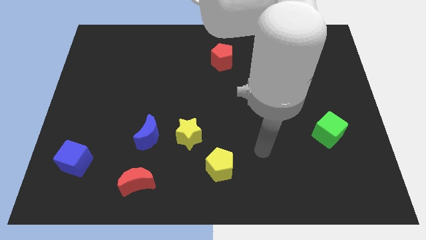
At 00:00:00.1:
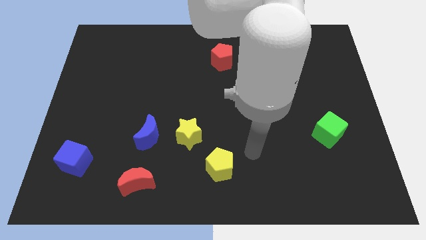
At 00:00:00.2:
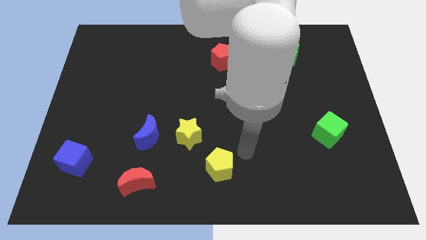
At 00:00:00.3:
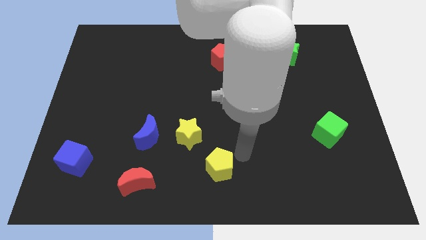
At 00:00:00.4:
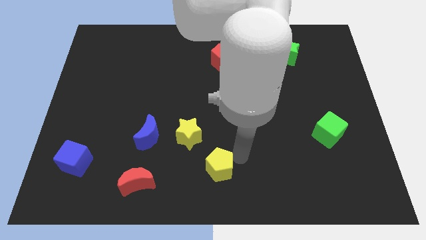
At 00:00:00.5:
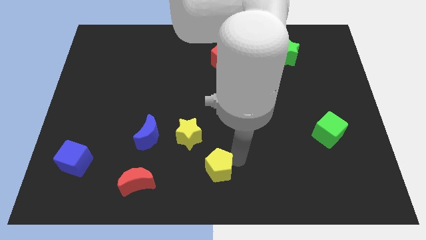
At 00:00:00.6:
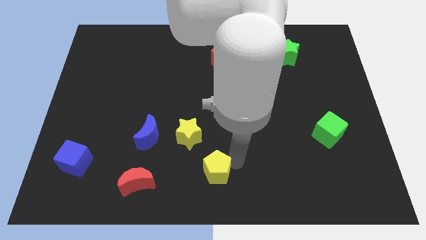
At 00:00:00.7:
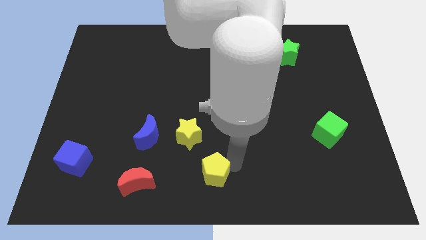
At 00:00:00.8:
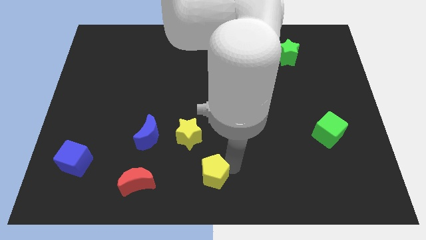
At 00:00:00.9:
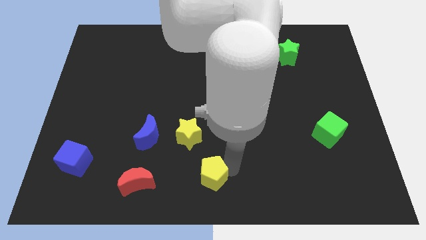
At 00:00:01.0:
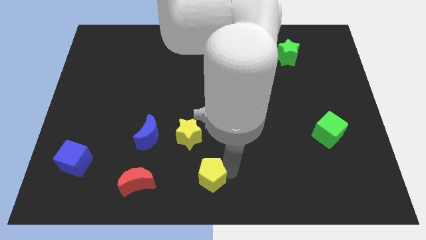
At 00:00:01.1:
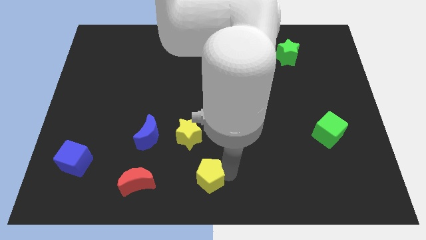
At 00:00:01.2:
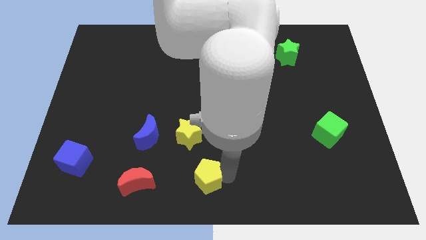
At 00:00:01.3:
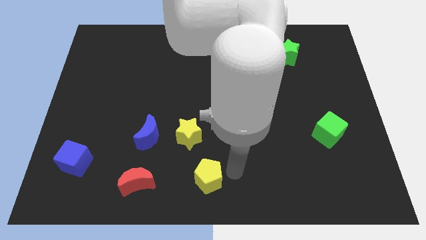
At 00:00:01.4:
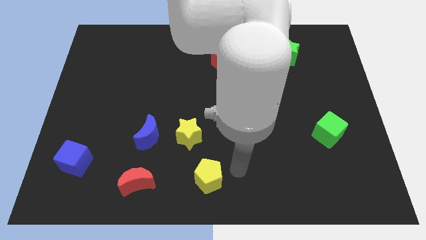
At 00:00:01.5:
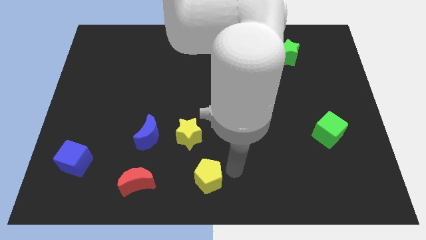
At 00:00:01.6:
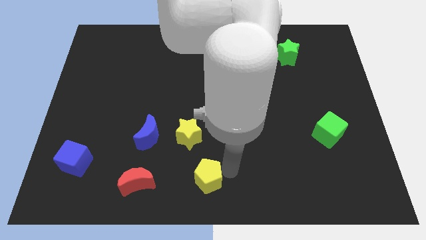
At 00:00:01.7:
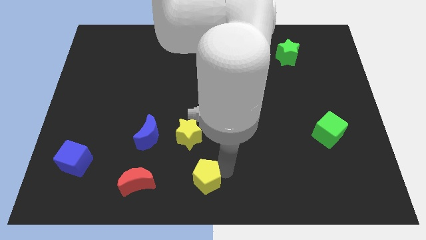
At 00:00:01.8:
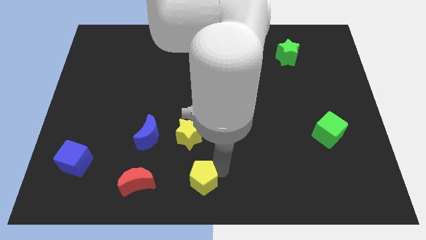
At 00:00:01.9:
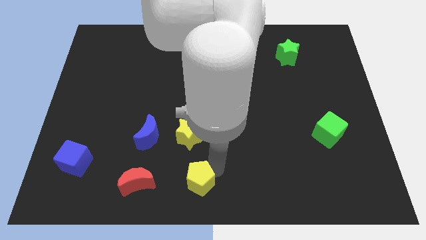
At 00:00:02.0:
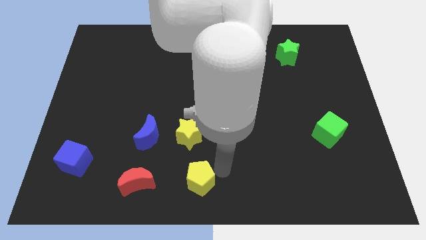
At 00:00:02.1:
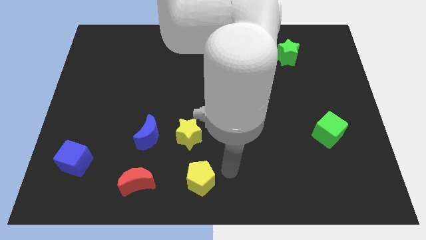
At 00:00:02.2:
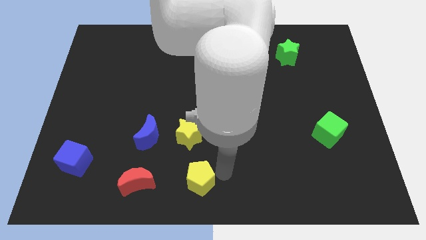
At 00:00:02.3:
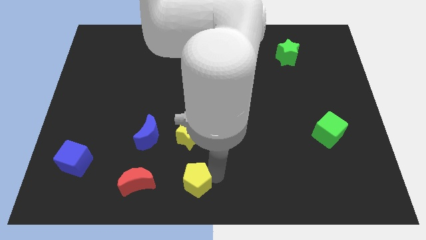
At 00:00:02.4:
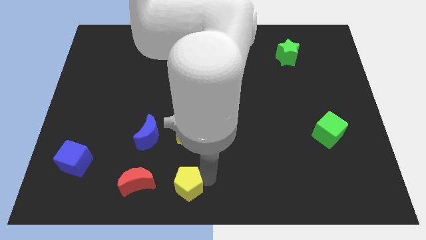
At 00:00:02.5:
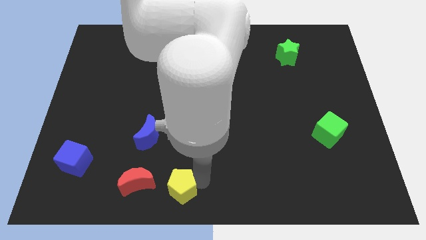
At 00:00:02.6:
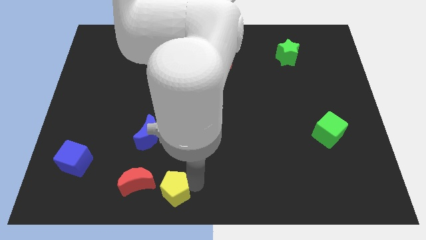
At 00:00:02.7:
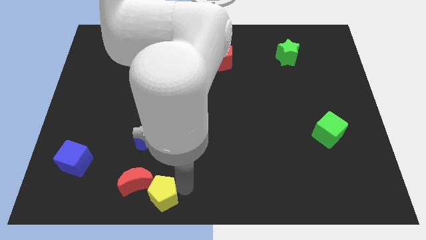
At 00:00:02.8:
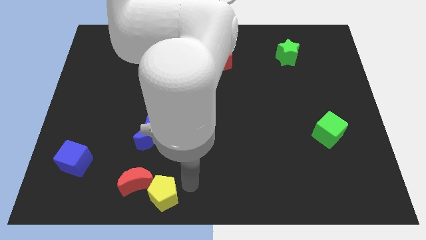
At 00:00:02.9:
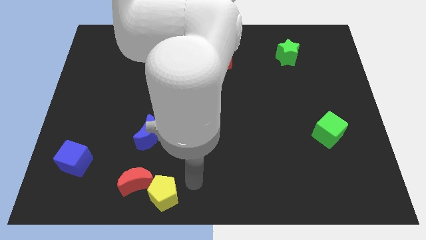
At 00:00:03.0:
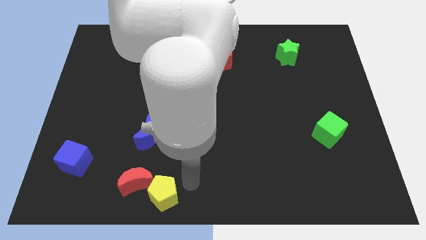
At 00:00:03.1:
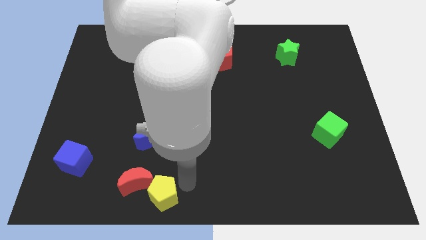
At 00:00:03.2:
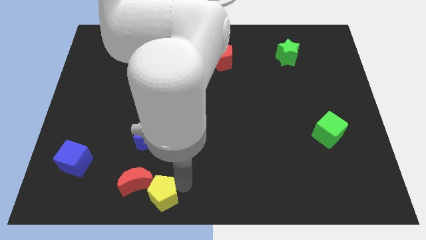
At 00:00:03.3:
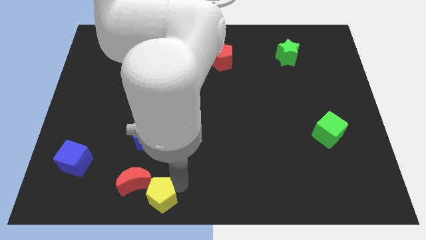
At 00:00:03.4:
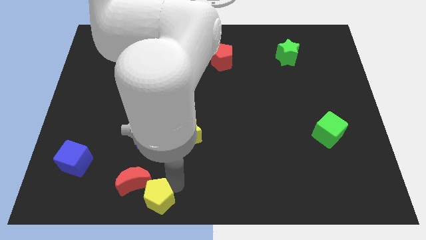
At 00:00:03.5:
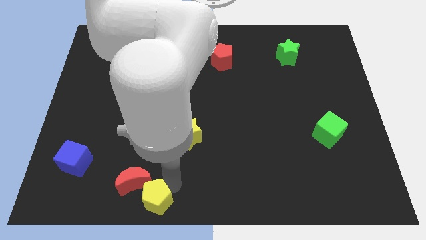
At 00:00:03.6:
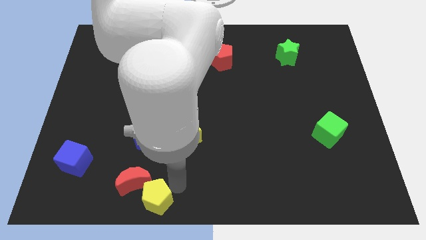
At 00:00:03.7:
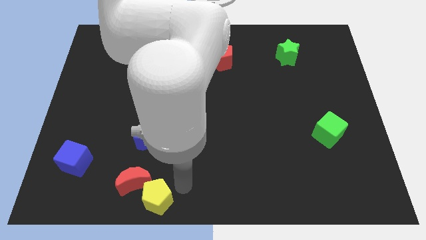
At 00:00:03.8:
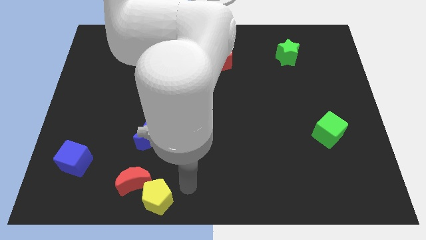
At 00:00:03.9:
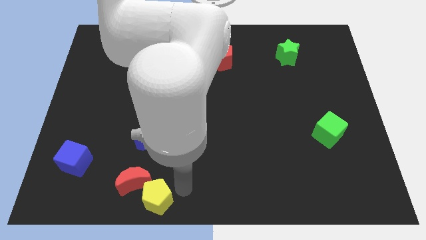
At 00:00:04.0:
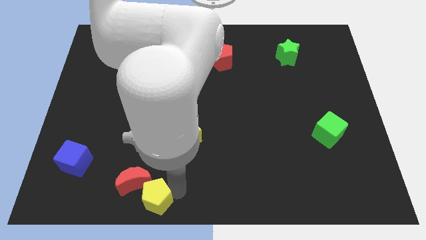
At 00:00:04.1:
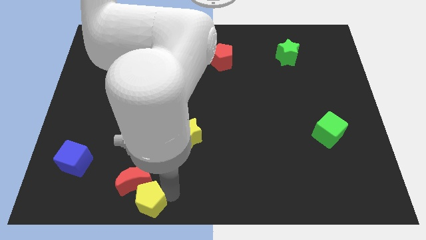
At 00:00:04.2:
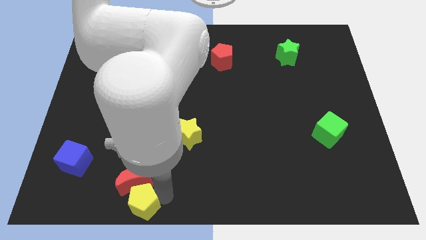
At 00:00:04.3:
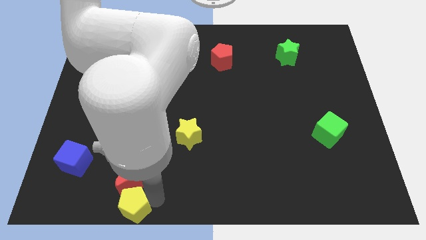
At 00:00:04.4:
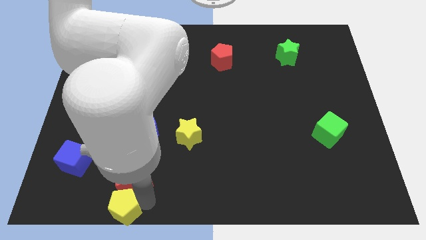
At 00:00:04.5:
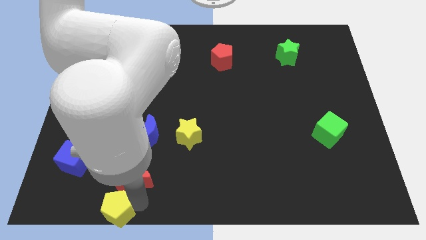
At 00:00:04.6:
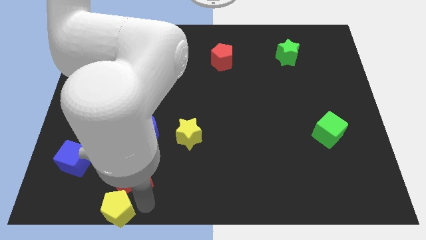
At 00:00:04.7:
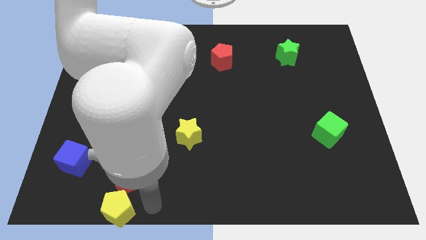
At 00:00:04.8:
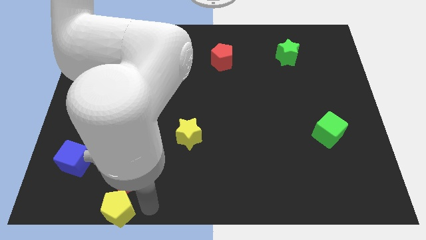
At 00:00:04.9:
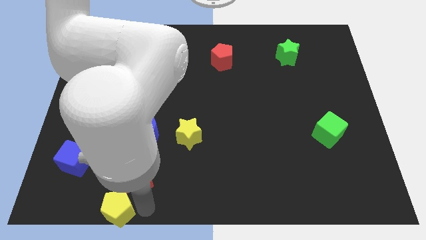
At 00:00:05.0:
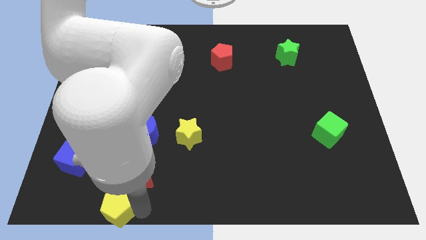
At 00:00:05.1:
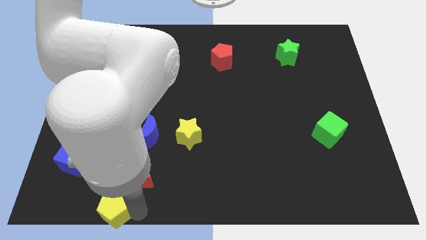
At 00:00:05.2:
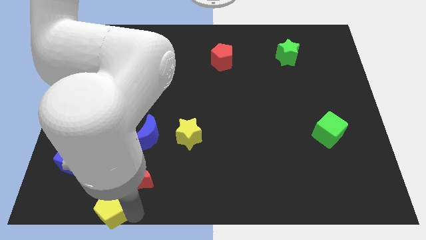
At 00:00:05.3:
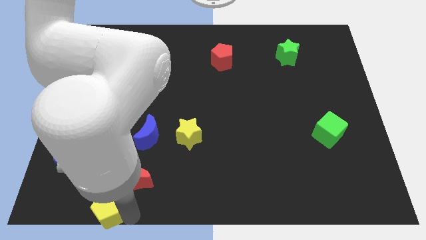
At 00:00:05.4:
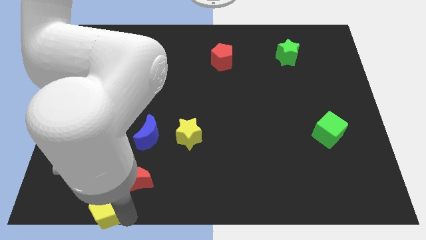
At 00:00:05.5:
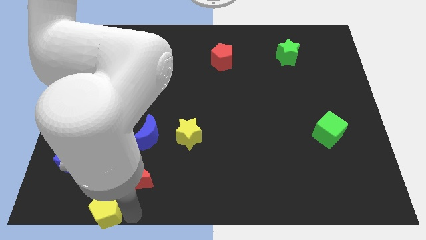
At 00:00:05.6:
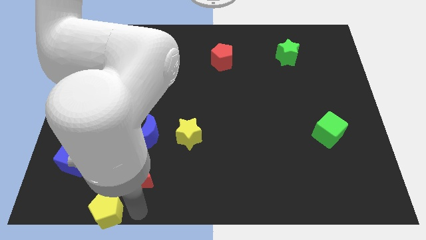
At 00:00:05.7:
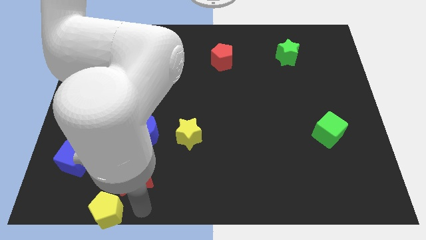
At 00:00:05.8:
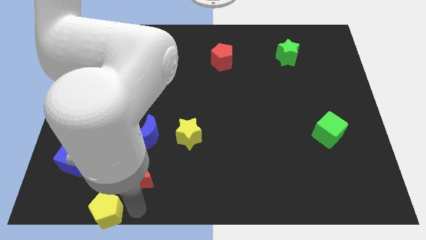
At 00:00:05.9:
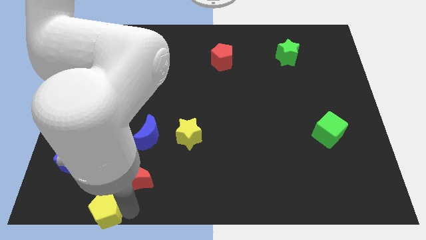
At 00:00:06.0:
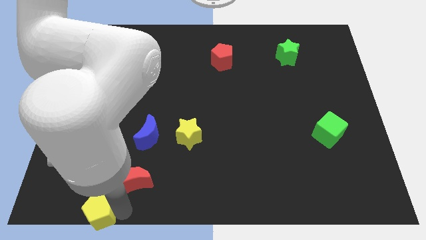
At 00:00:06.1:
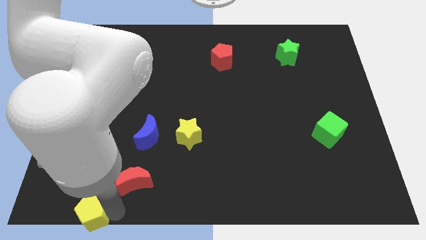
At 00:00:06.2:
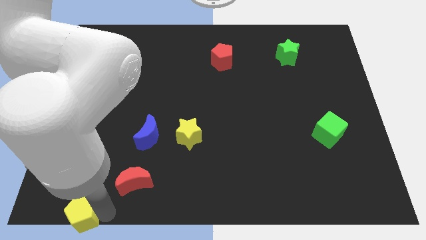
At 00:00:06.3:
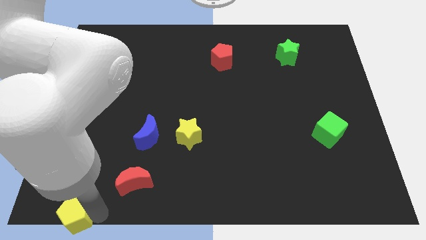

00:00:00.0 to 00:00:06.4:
move the yellow pentagon to the bottom left corner

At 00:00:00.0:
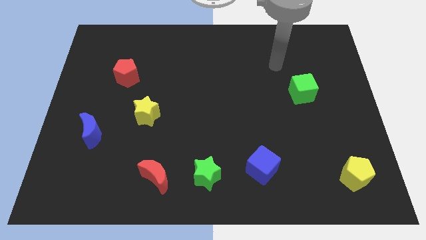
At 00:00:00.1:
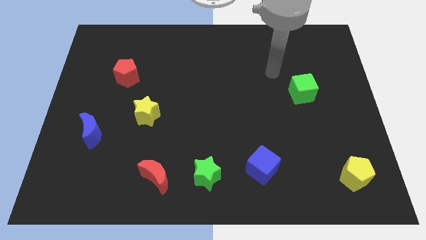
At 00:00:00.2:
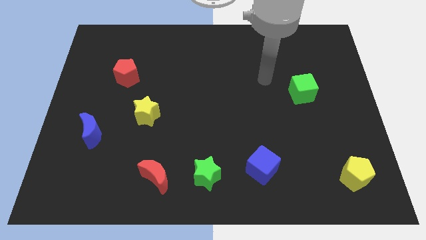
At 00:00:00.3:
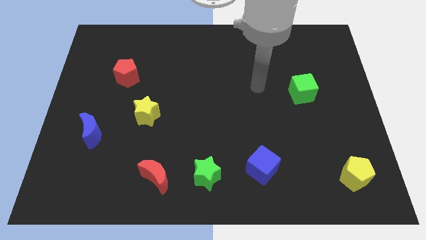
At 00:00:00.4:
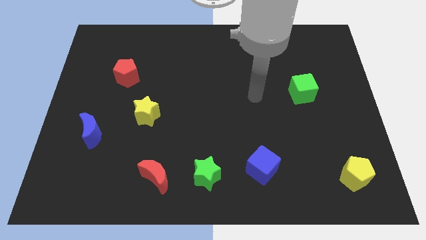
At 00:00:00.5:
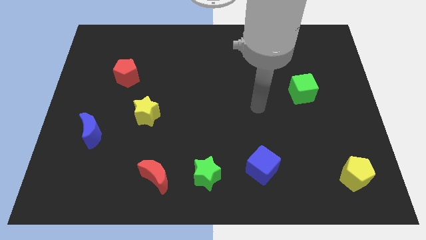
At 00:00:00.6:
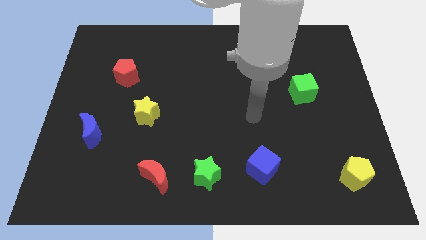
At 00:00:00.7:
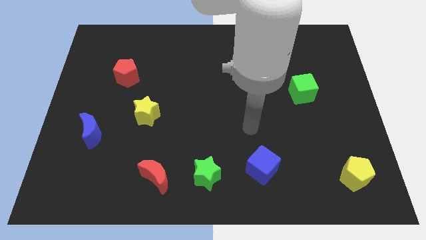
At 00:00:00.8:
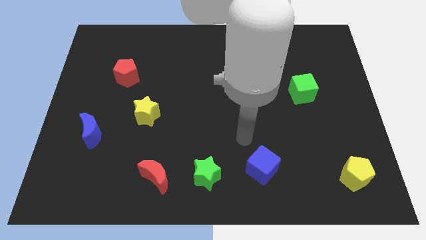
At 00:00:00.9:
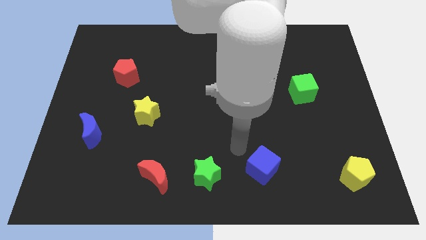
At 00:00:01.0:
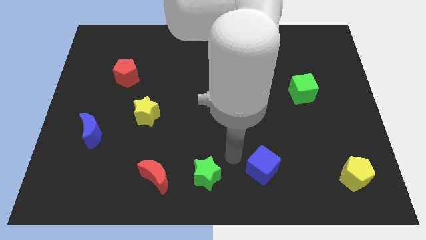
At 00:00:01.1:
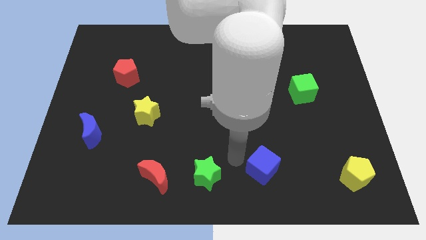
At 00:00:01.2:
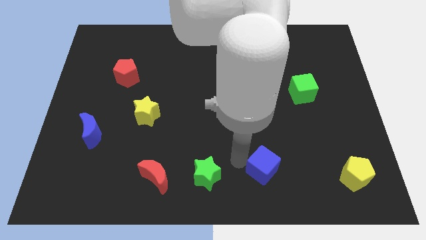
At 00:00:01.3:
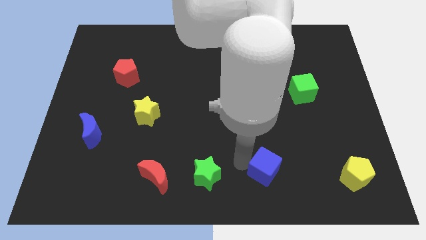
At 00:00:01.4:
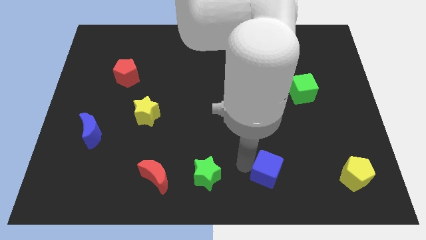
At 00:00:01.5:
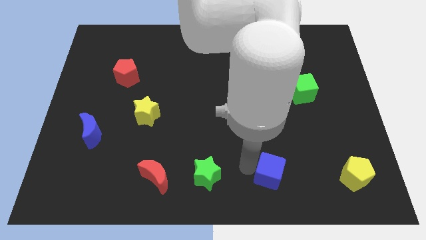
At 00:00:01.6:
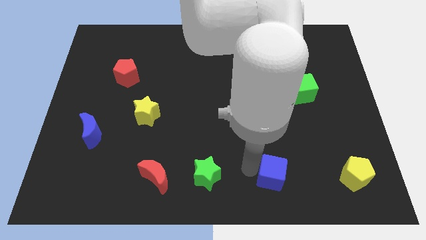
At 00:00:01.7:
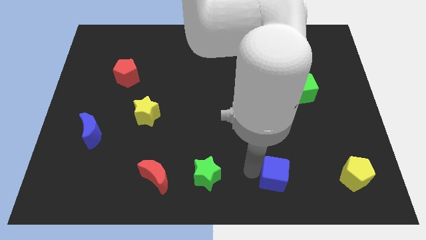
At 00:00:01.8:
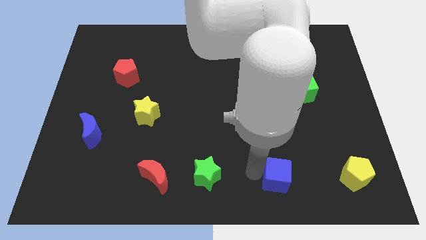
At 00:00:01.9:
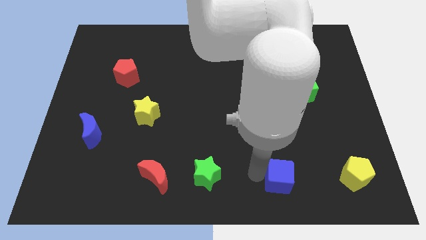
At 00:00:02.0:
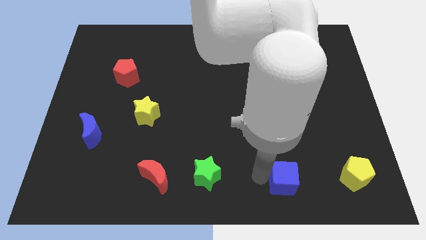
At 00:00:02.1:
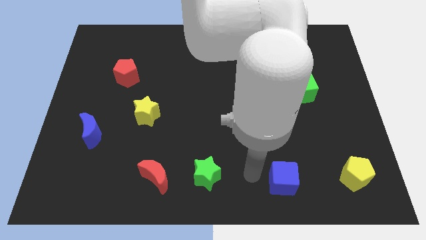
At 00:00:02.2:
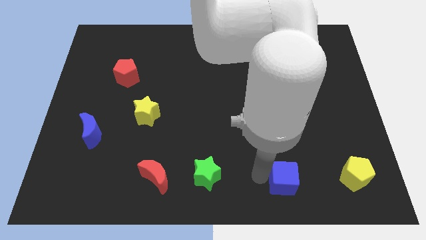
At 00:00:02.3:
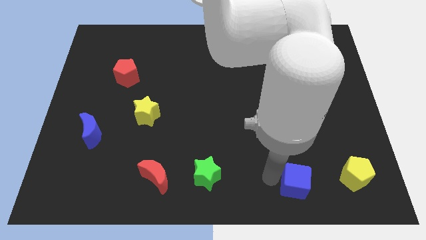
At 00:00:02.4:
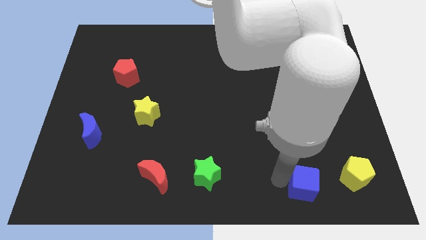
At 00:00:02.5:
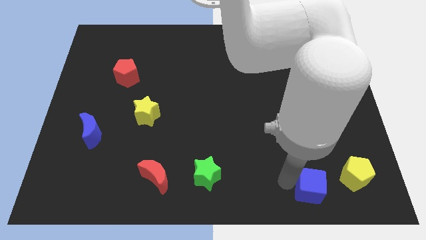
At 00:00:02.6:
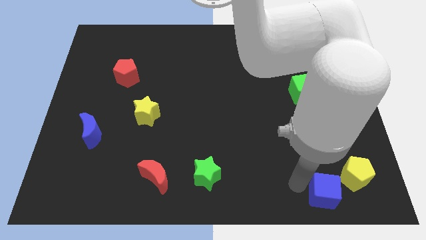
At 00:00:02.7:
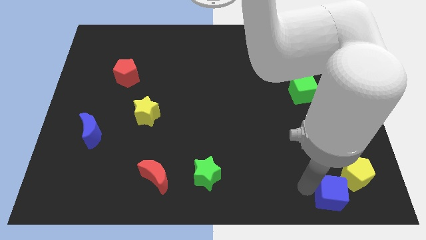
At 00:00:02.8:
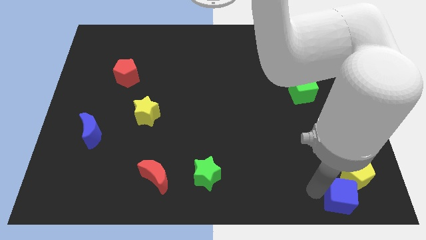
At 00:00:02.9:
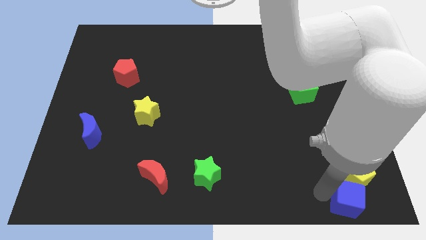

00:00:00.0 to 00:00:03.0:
put the blue cube to the lower right corner
